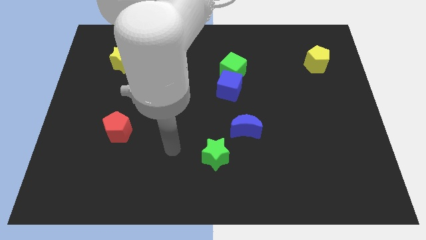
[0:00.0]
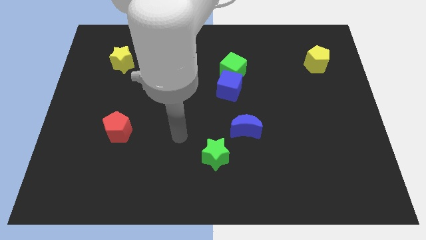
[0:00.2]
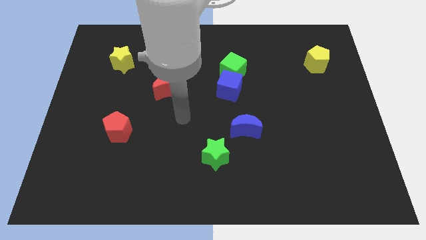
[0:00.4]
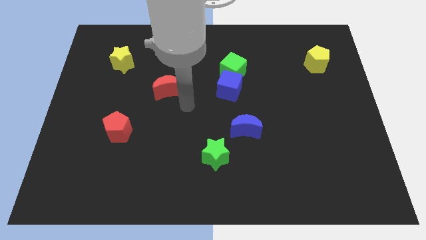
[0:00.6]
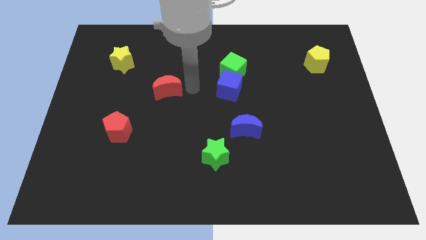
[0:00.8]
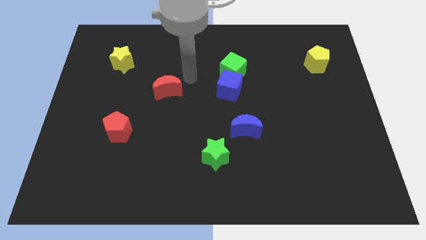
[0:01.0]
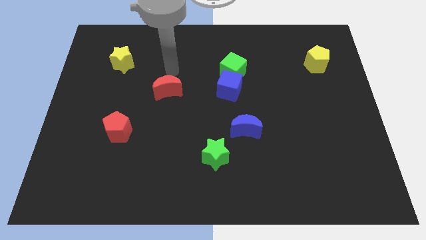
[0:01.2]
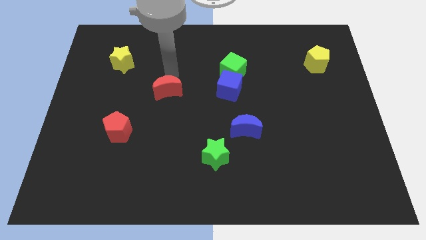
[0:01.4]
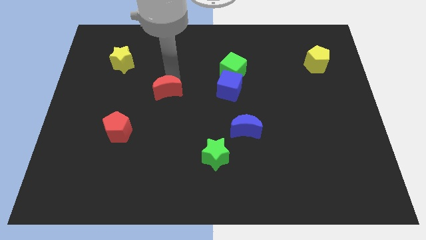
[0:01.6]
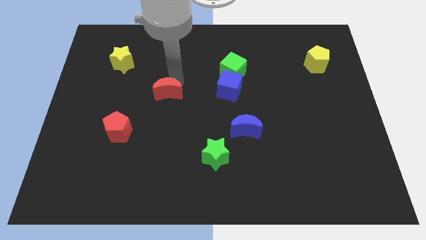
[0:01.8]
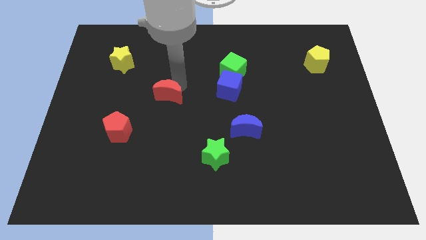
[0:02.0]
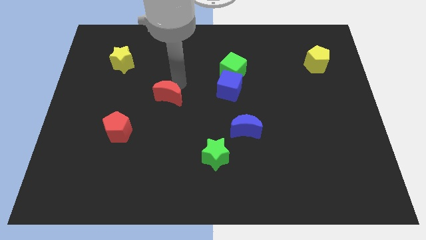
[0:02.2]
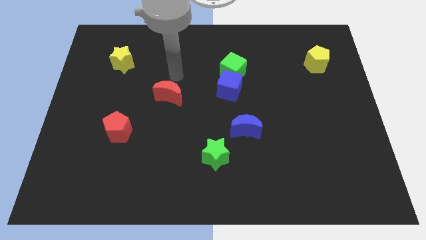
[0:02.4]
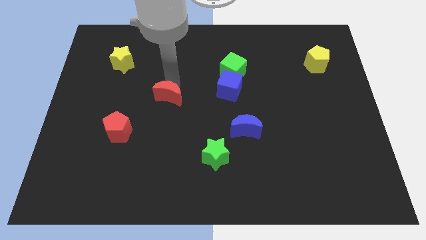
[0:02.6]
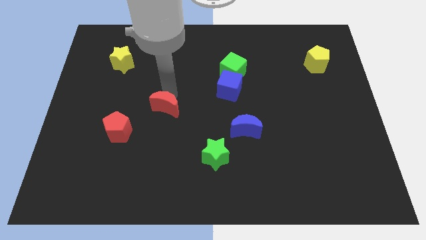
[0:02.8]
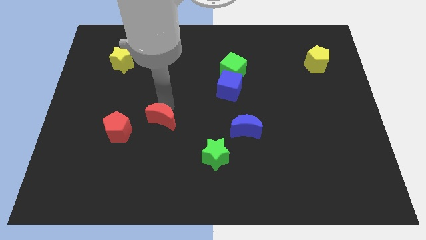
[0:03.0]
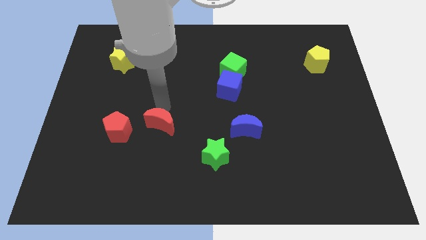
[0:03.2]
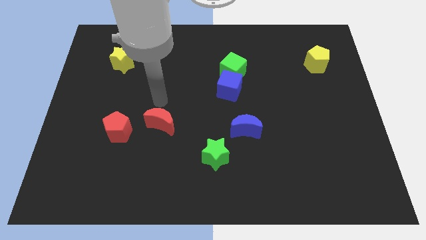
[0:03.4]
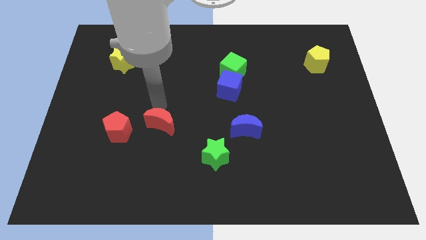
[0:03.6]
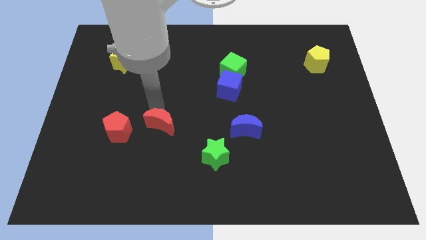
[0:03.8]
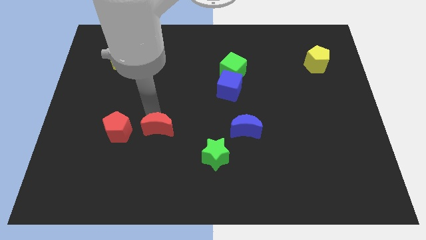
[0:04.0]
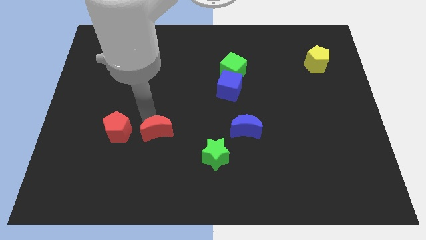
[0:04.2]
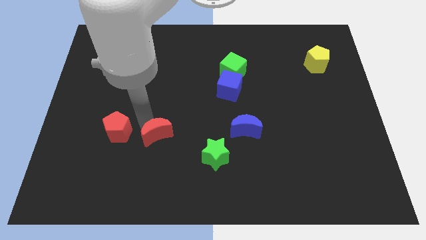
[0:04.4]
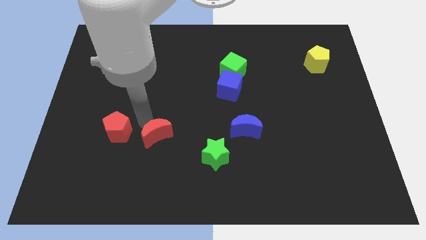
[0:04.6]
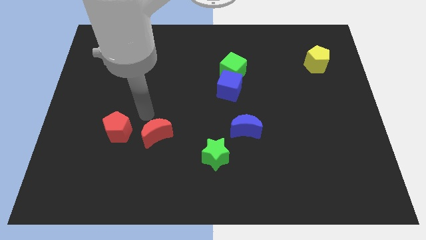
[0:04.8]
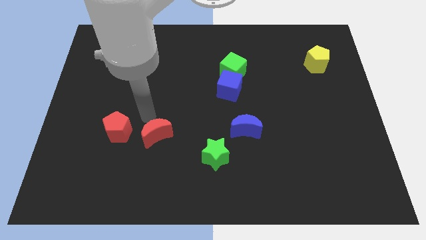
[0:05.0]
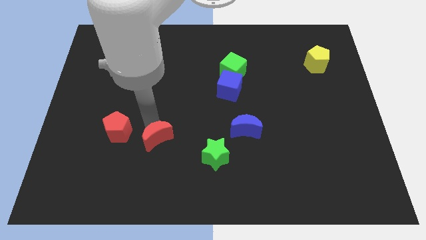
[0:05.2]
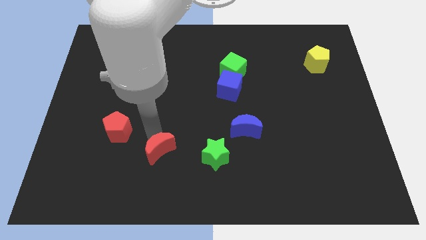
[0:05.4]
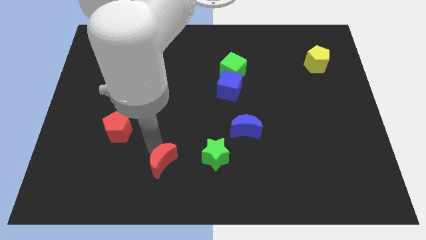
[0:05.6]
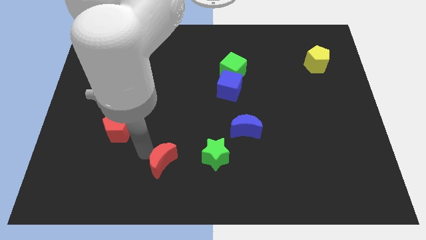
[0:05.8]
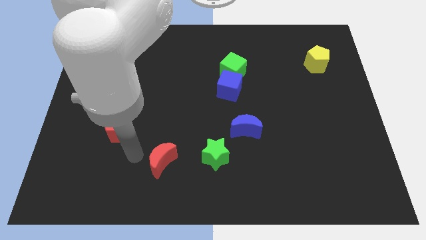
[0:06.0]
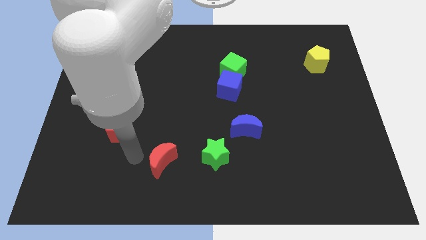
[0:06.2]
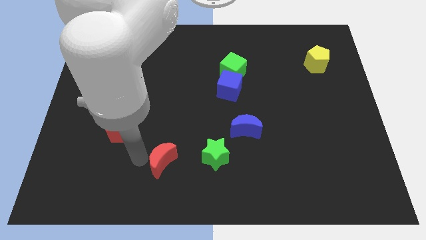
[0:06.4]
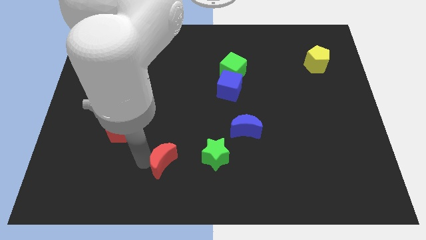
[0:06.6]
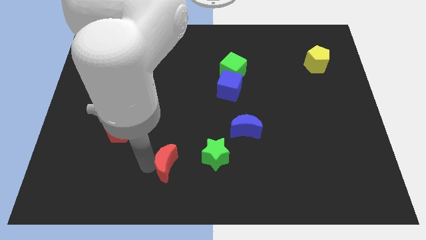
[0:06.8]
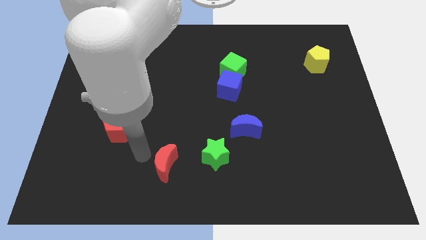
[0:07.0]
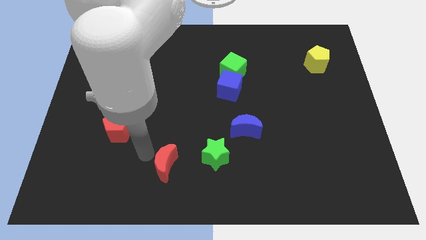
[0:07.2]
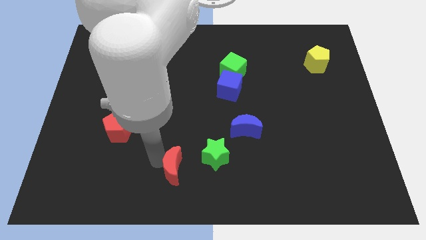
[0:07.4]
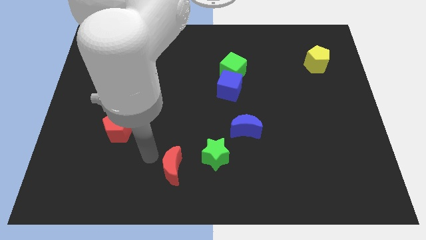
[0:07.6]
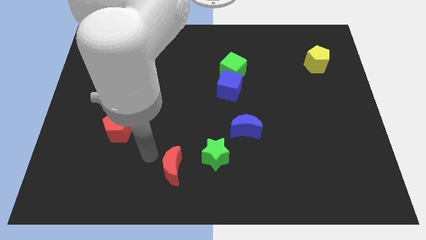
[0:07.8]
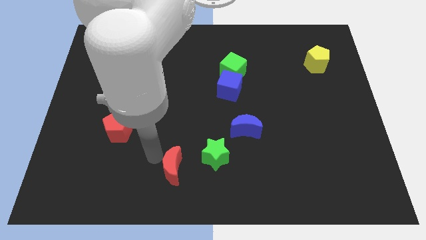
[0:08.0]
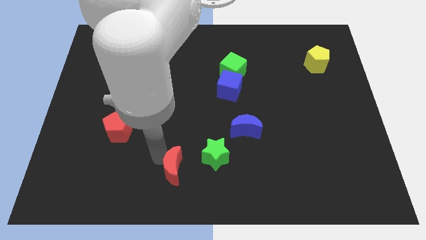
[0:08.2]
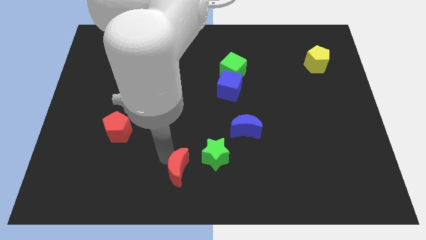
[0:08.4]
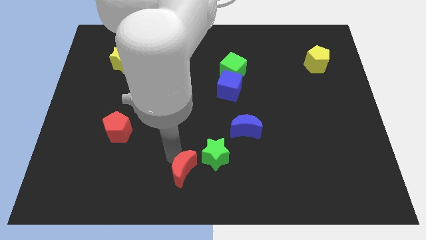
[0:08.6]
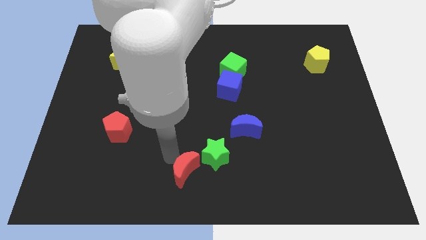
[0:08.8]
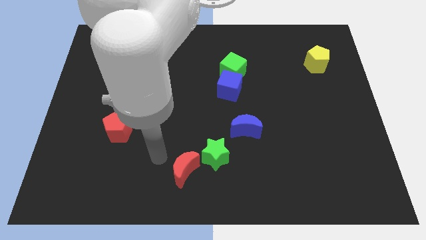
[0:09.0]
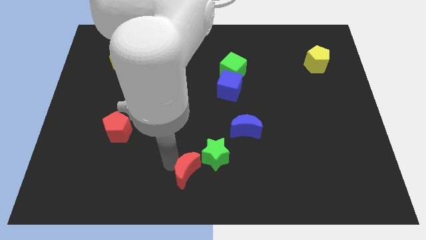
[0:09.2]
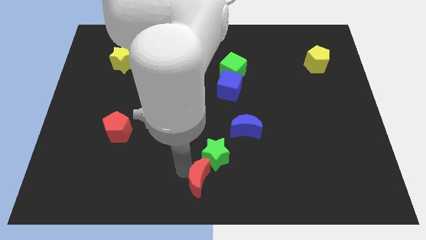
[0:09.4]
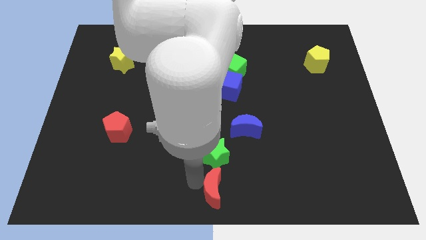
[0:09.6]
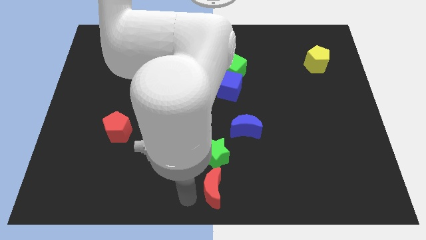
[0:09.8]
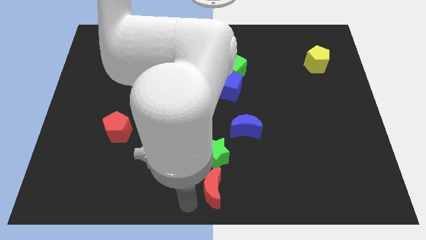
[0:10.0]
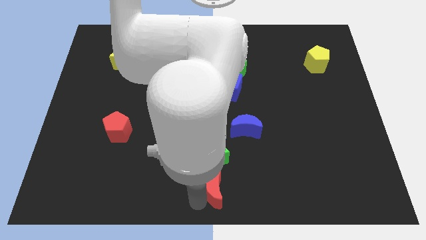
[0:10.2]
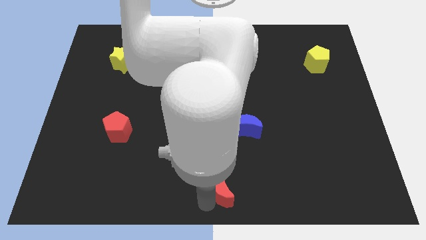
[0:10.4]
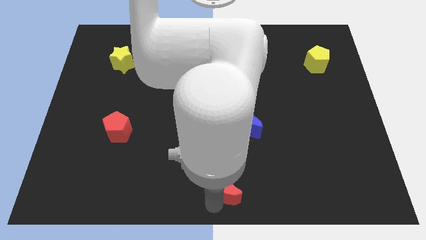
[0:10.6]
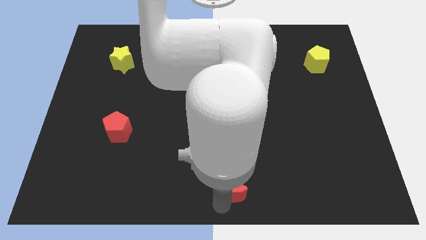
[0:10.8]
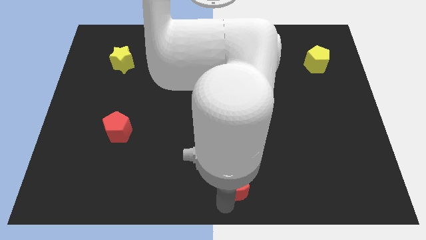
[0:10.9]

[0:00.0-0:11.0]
put the red moon to the bottom side of the blue moon

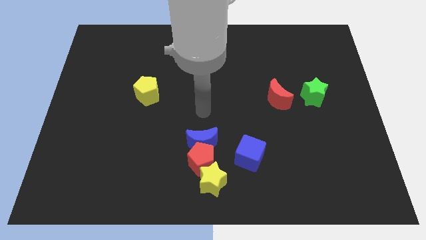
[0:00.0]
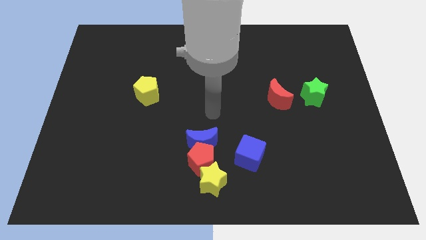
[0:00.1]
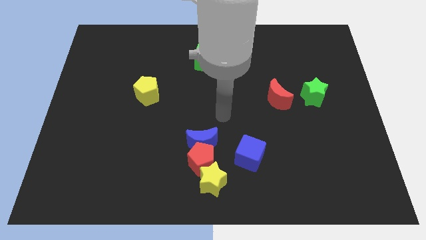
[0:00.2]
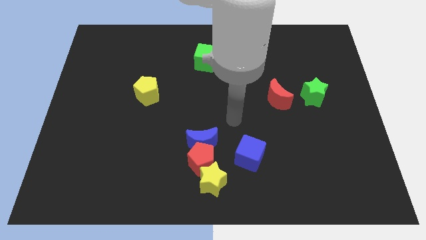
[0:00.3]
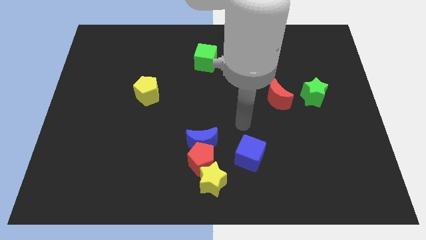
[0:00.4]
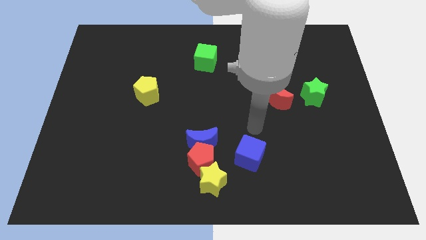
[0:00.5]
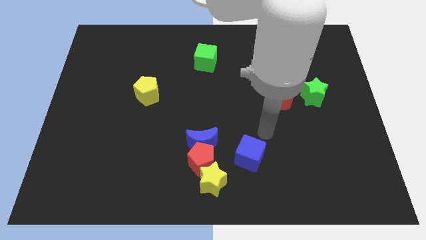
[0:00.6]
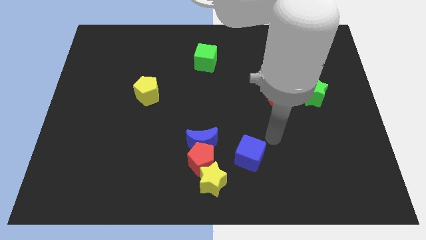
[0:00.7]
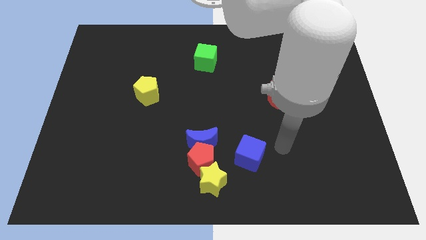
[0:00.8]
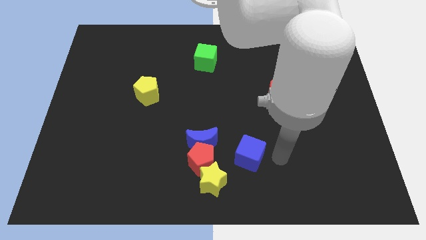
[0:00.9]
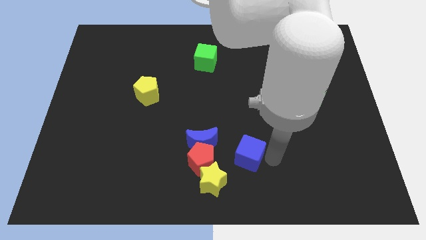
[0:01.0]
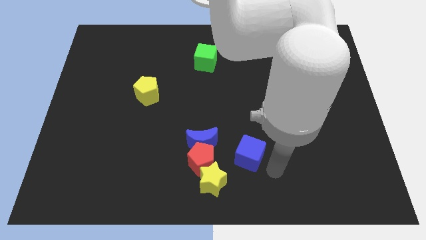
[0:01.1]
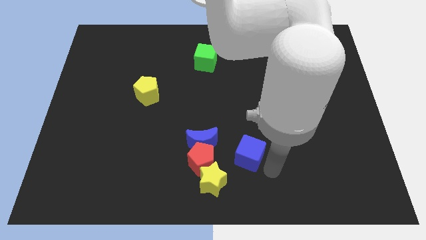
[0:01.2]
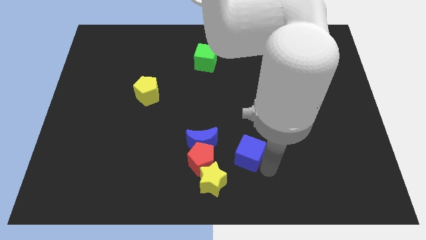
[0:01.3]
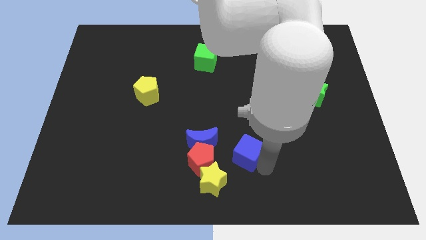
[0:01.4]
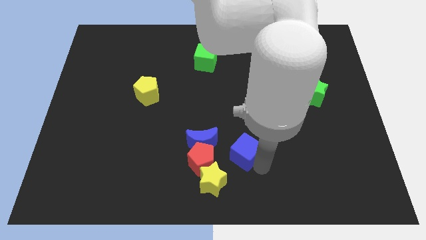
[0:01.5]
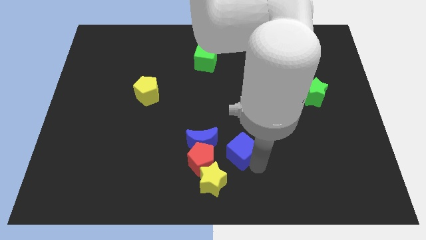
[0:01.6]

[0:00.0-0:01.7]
put the blue cube to the top right of the red pentagon

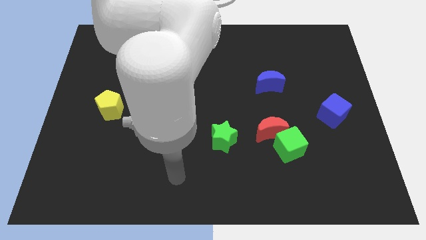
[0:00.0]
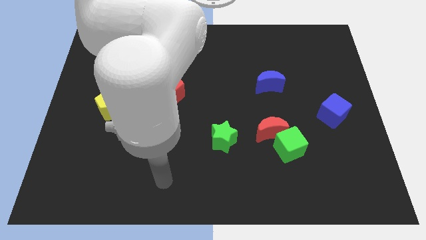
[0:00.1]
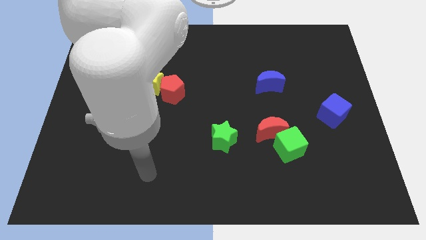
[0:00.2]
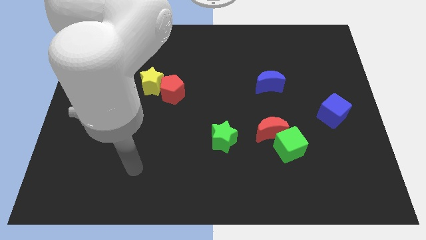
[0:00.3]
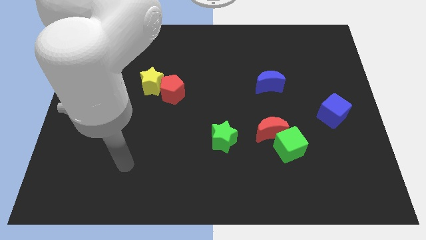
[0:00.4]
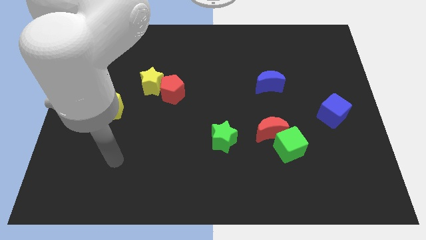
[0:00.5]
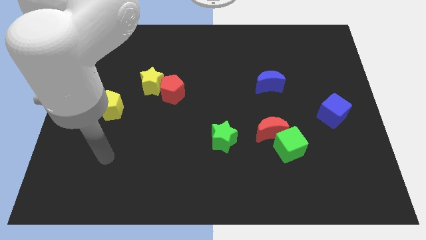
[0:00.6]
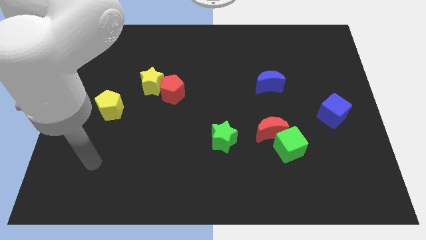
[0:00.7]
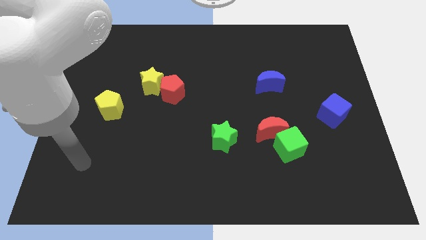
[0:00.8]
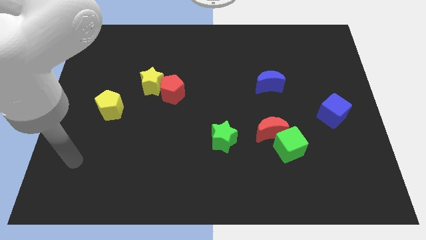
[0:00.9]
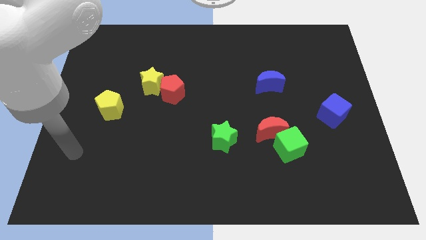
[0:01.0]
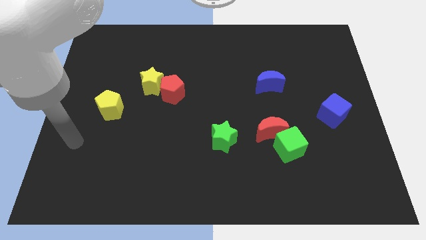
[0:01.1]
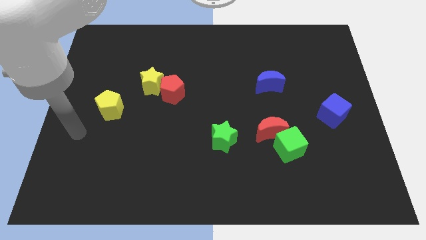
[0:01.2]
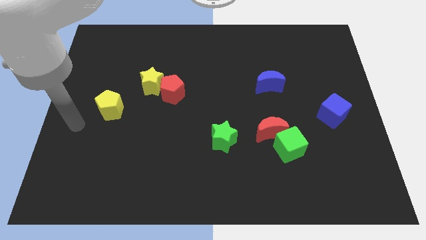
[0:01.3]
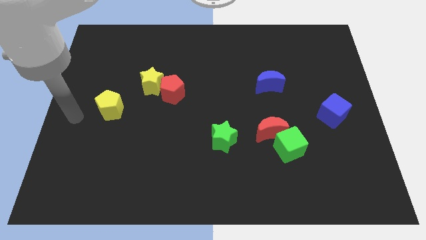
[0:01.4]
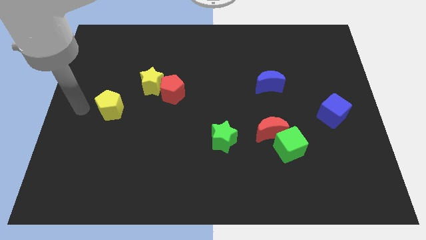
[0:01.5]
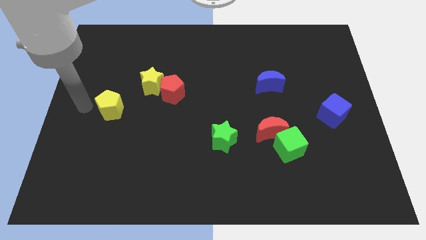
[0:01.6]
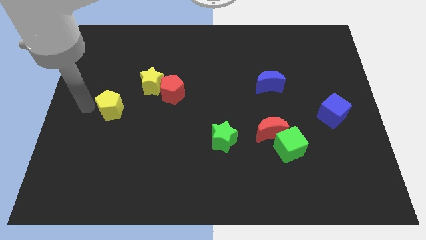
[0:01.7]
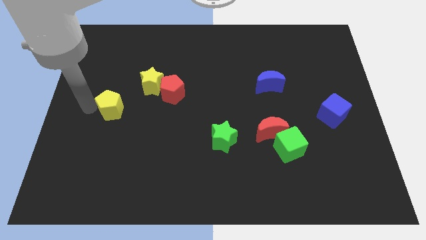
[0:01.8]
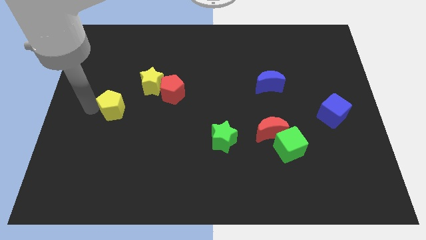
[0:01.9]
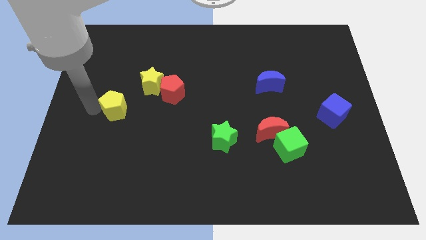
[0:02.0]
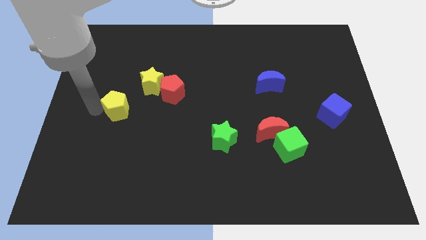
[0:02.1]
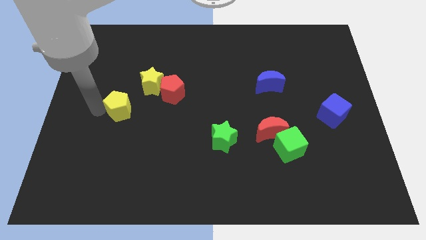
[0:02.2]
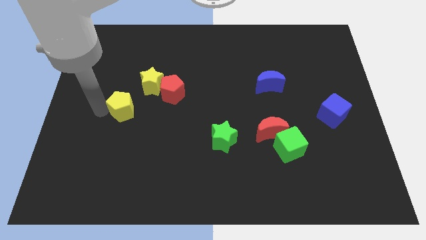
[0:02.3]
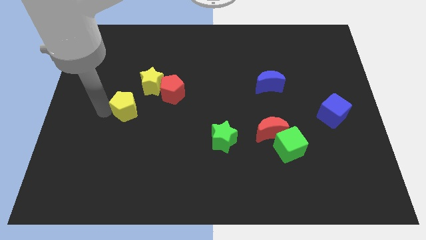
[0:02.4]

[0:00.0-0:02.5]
push the yellow pentagon to the bottom left of the red pentagon
